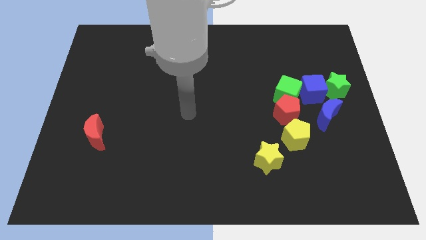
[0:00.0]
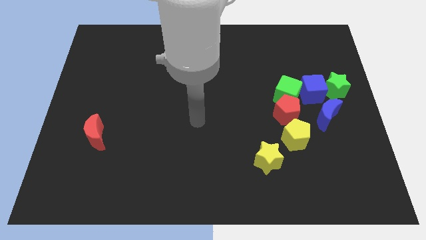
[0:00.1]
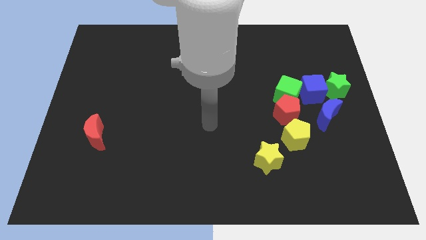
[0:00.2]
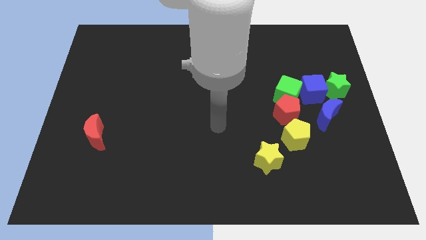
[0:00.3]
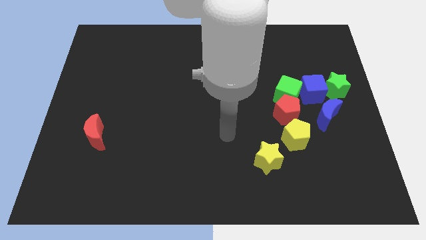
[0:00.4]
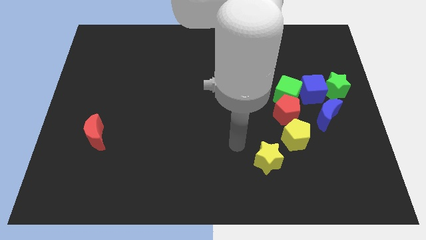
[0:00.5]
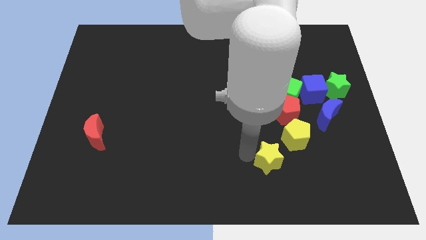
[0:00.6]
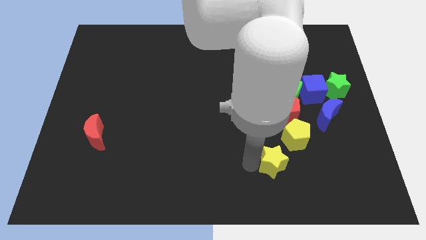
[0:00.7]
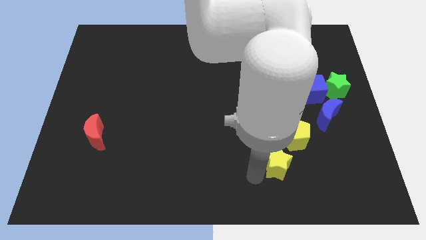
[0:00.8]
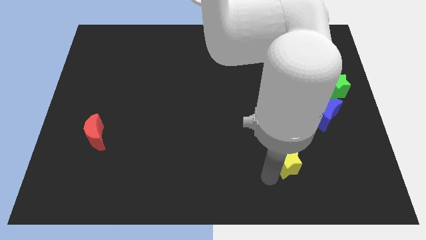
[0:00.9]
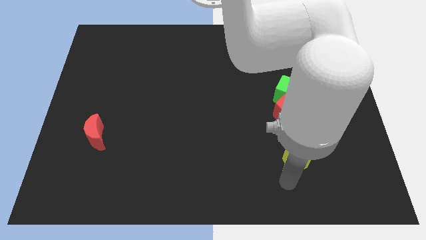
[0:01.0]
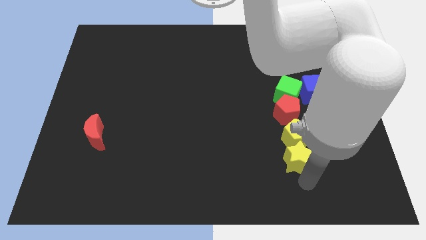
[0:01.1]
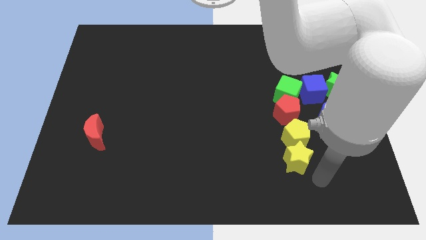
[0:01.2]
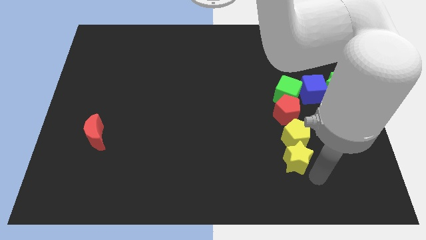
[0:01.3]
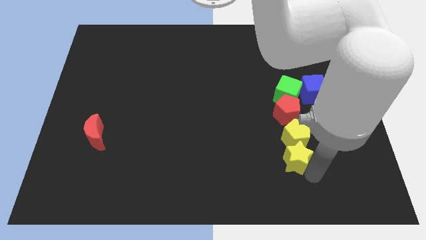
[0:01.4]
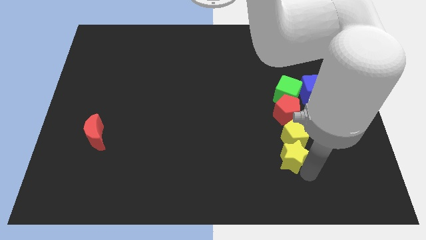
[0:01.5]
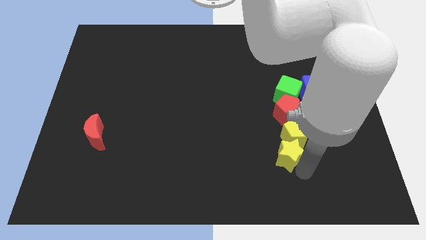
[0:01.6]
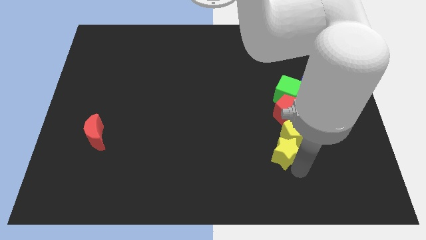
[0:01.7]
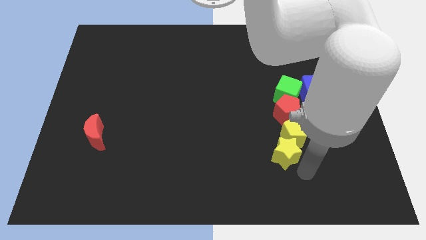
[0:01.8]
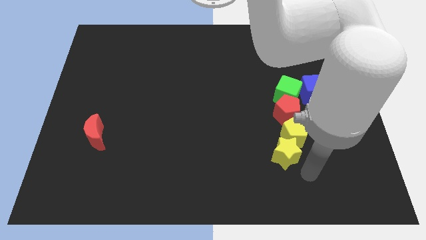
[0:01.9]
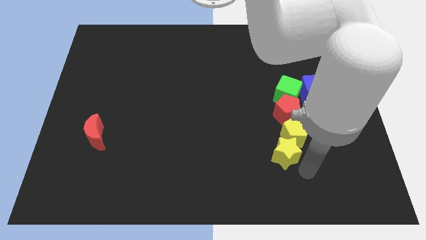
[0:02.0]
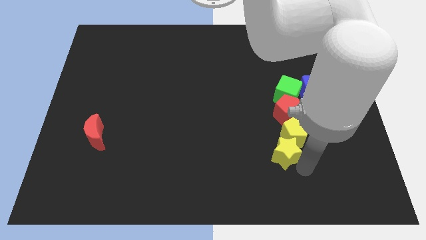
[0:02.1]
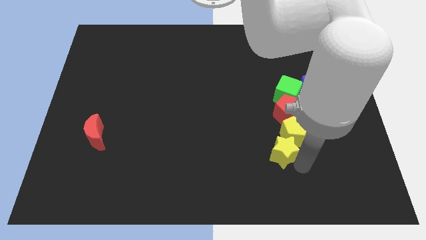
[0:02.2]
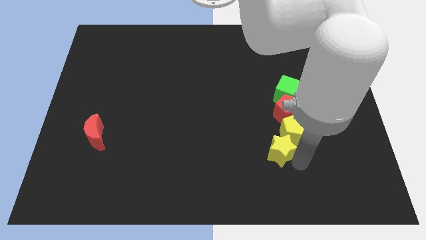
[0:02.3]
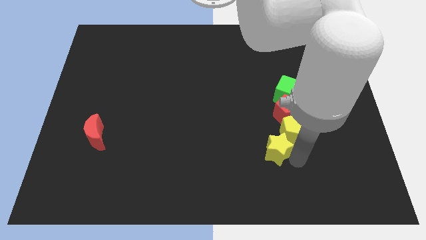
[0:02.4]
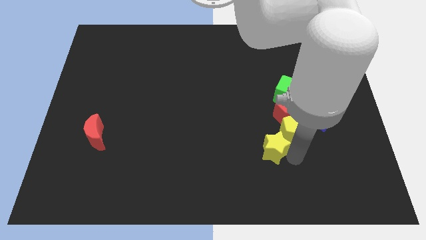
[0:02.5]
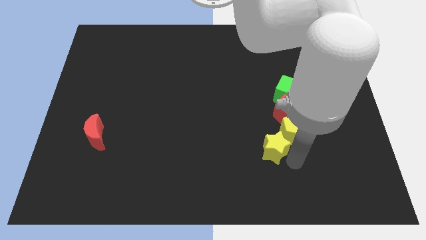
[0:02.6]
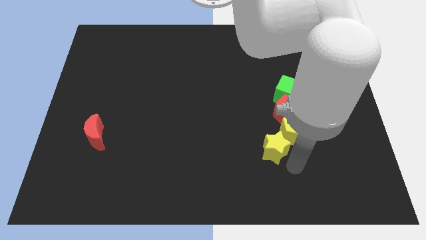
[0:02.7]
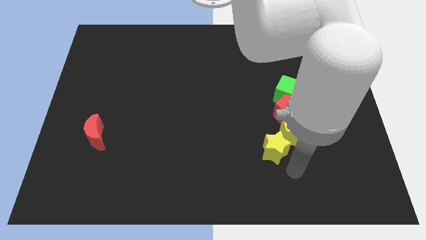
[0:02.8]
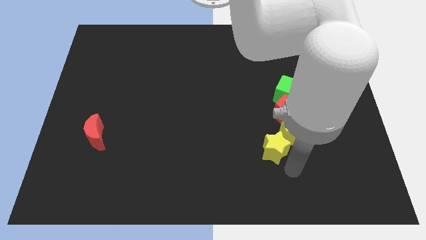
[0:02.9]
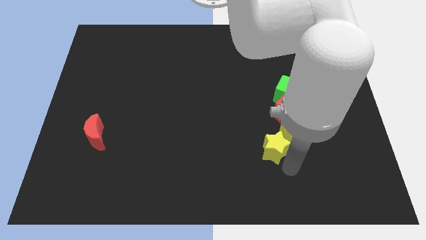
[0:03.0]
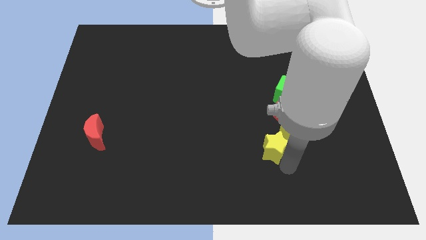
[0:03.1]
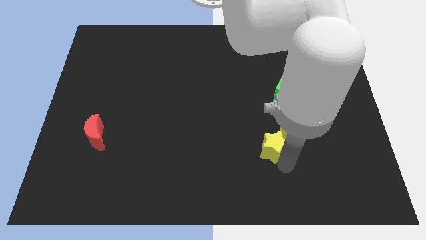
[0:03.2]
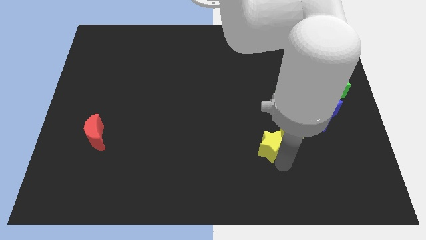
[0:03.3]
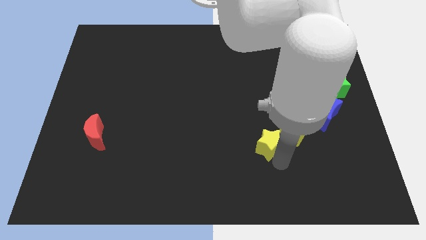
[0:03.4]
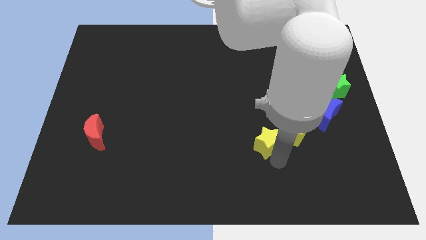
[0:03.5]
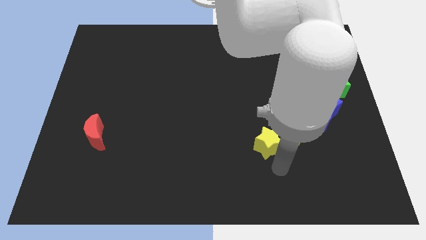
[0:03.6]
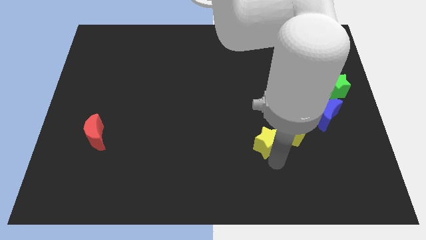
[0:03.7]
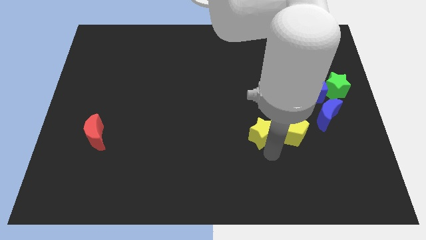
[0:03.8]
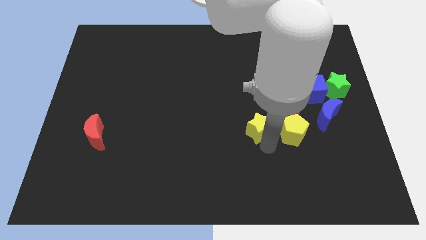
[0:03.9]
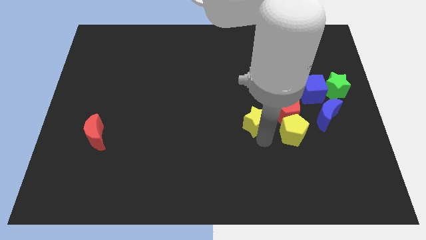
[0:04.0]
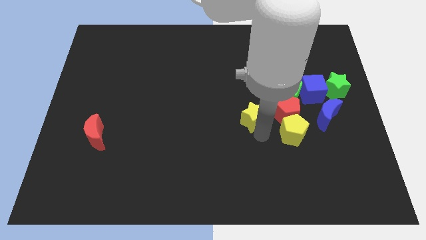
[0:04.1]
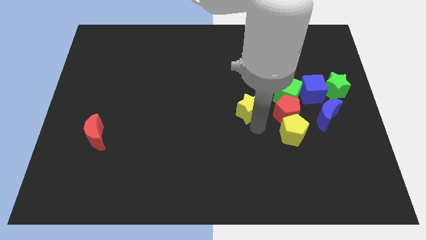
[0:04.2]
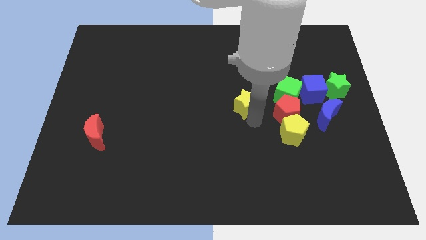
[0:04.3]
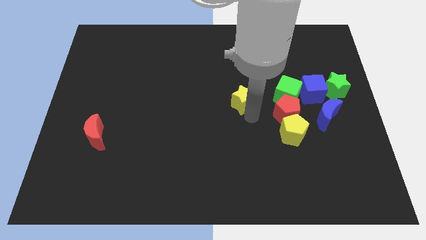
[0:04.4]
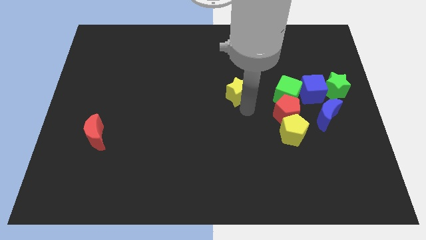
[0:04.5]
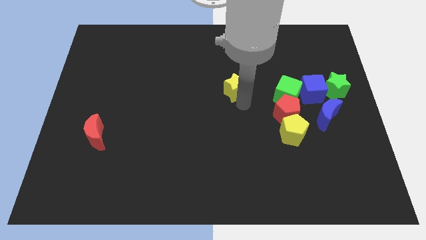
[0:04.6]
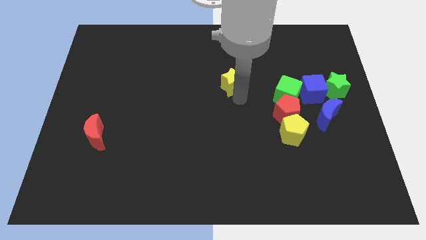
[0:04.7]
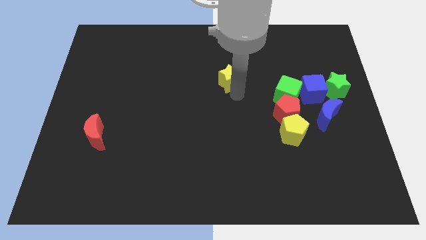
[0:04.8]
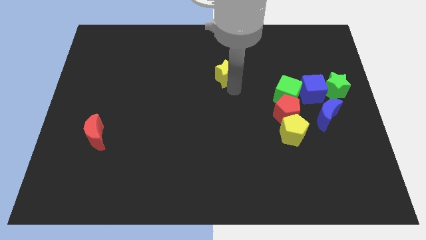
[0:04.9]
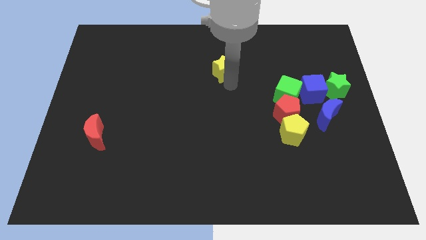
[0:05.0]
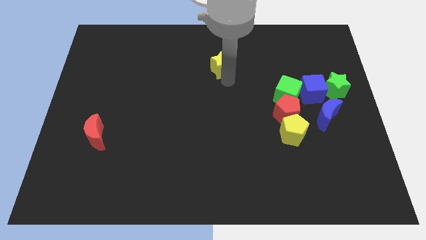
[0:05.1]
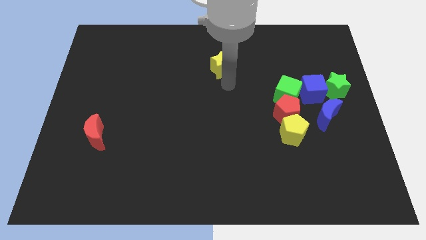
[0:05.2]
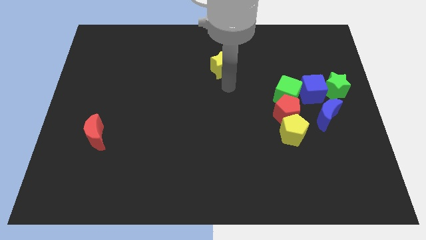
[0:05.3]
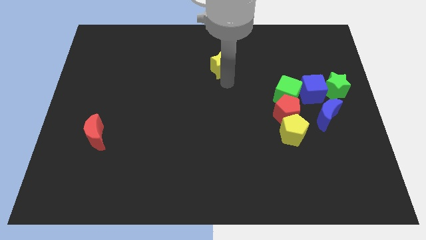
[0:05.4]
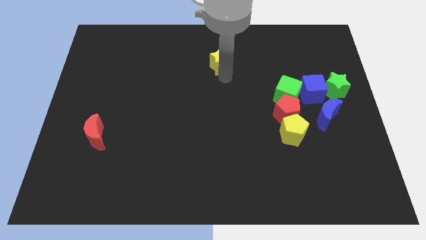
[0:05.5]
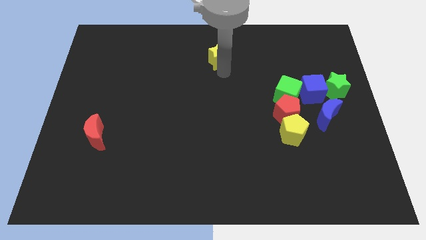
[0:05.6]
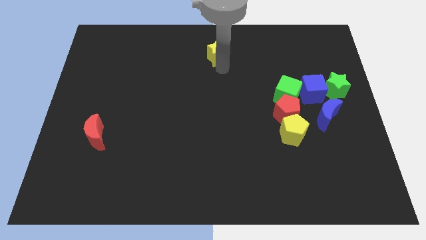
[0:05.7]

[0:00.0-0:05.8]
move the yellow star to the top side

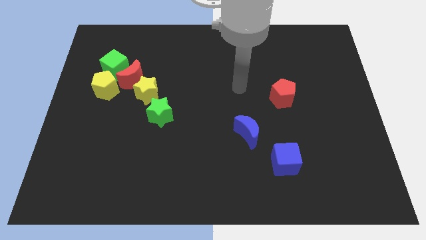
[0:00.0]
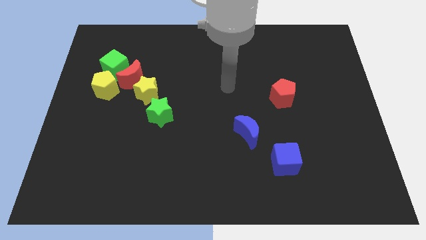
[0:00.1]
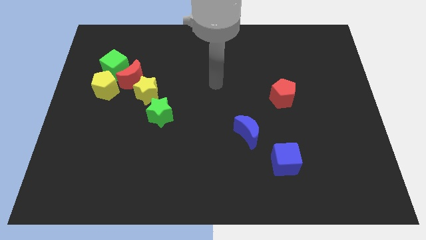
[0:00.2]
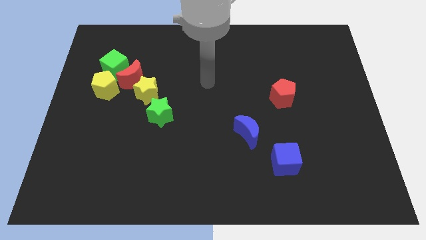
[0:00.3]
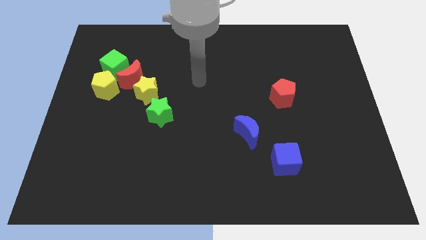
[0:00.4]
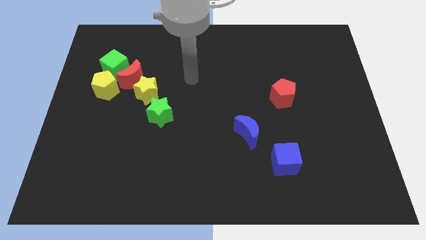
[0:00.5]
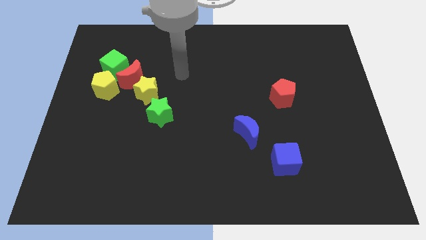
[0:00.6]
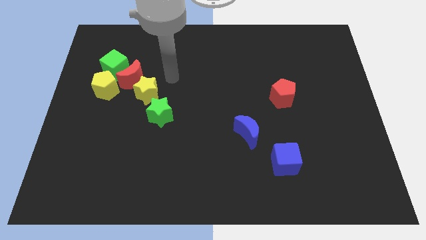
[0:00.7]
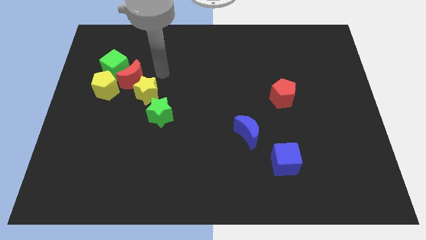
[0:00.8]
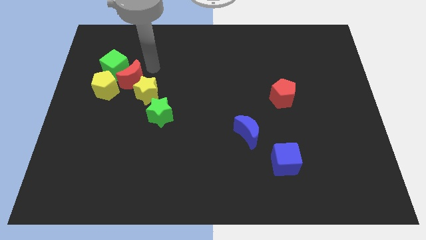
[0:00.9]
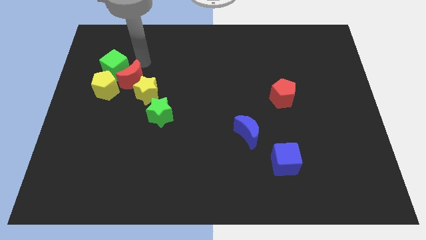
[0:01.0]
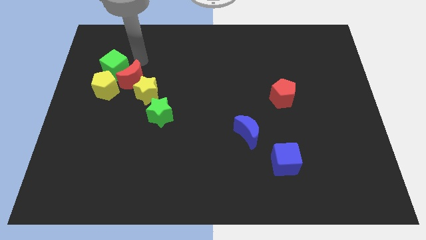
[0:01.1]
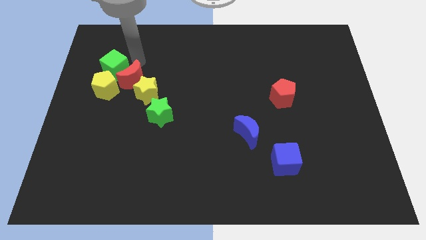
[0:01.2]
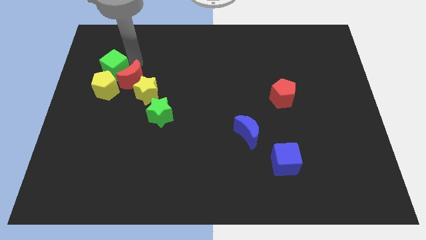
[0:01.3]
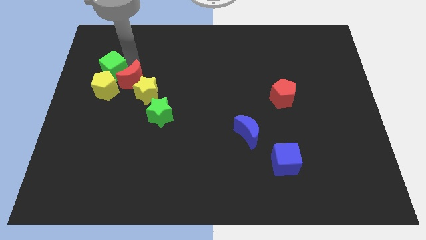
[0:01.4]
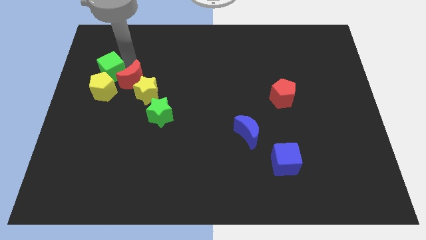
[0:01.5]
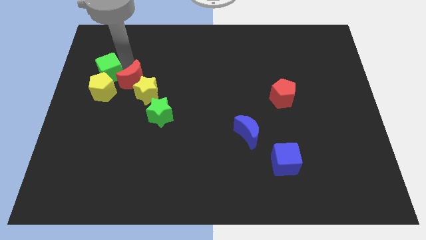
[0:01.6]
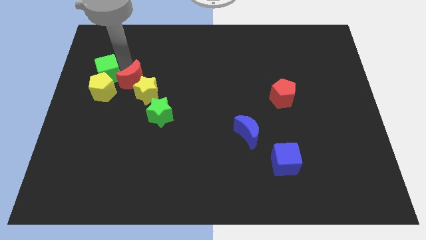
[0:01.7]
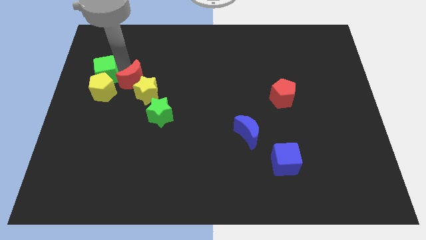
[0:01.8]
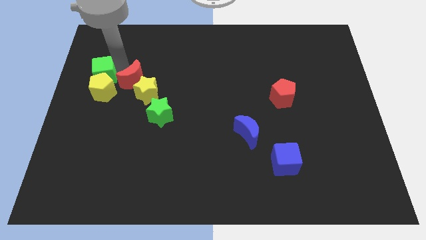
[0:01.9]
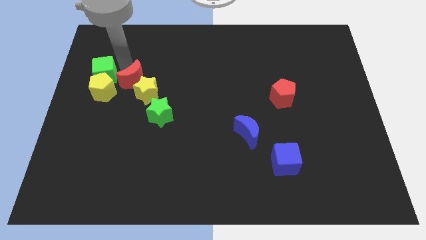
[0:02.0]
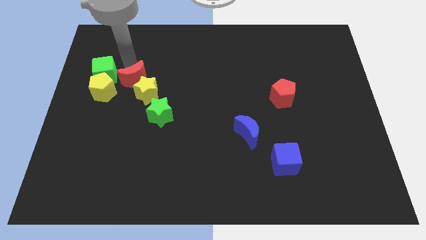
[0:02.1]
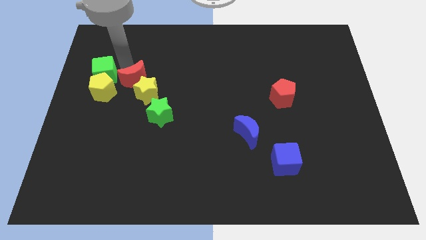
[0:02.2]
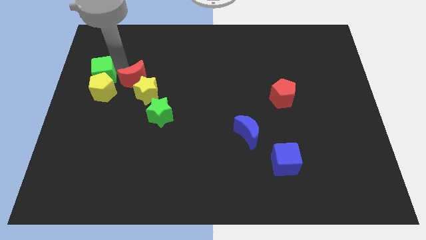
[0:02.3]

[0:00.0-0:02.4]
push the green cube to the center left
